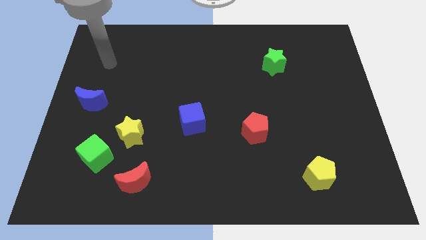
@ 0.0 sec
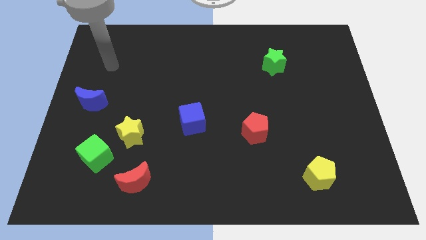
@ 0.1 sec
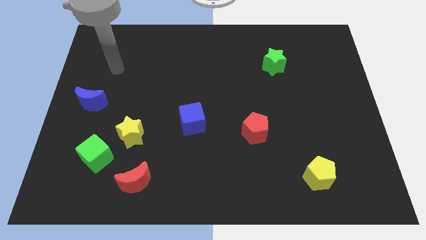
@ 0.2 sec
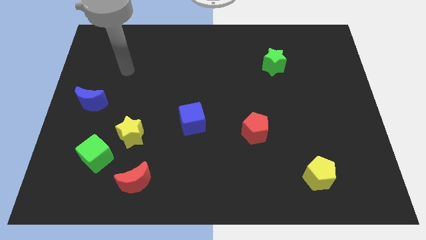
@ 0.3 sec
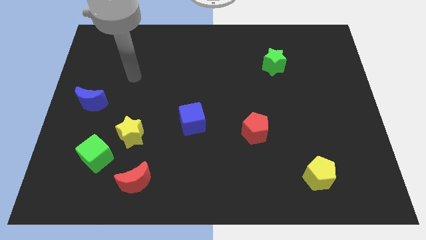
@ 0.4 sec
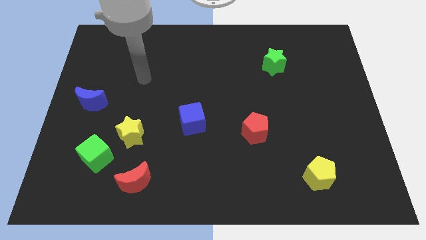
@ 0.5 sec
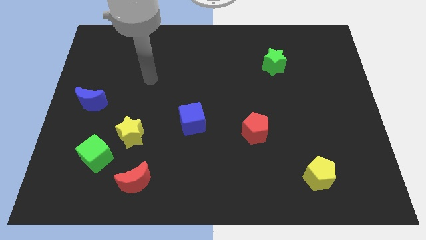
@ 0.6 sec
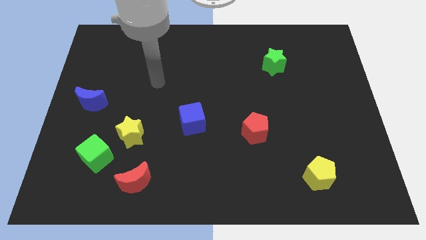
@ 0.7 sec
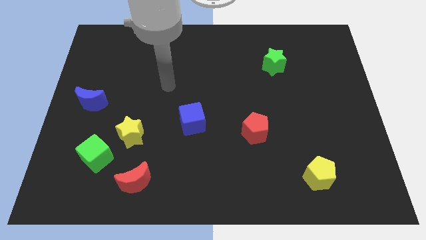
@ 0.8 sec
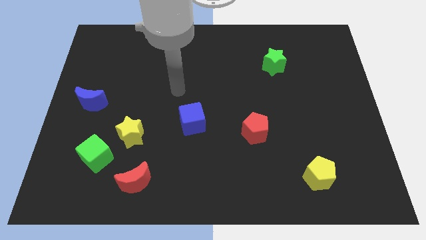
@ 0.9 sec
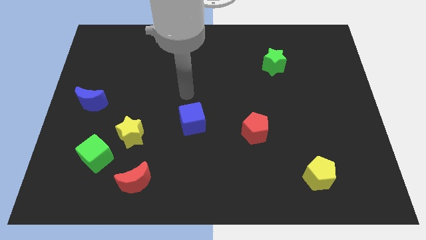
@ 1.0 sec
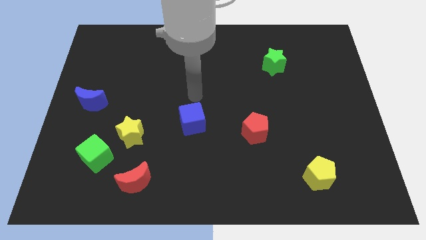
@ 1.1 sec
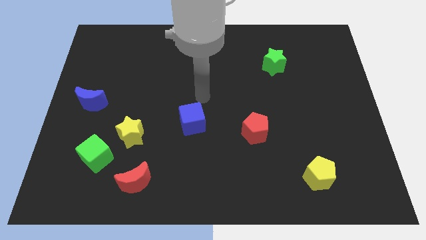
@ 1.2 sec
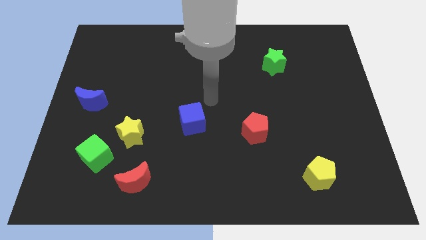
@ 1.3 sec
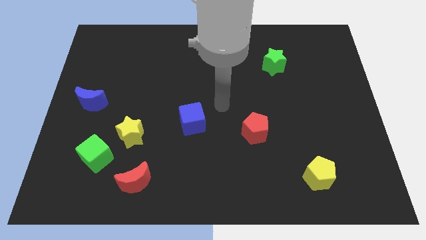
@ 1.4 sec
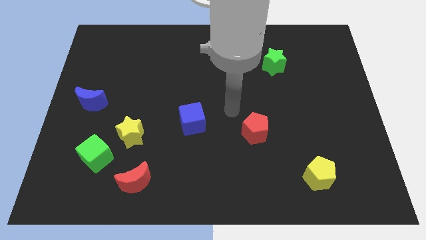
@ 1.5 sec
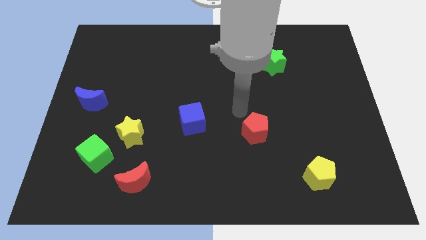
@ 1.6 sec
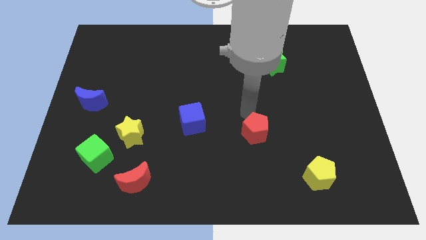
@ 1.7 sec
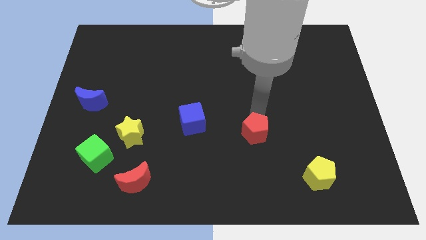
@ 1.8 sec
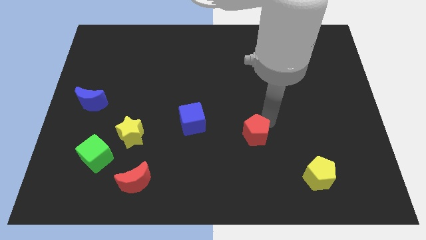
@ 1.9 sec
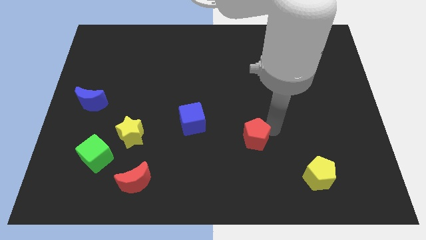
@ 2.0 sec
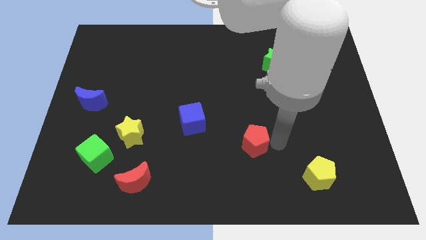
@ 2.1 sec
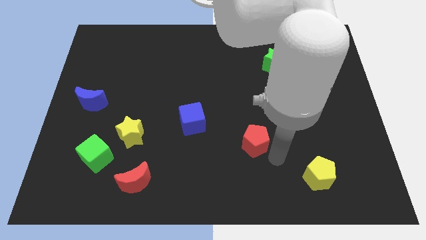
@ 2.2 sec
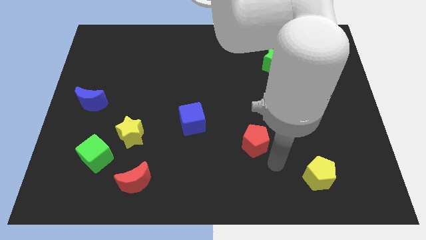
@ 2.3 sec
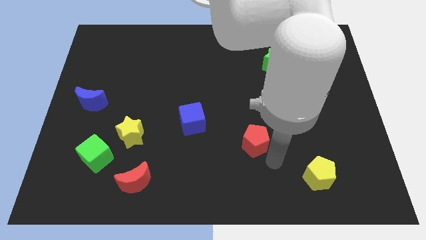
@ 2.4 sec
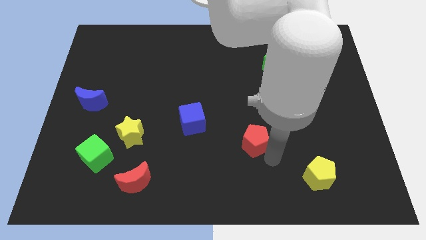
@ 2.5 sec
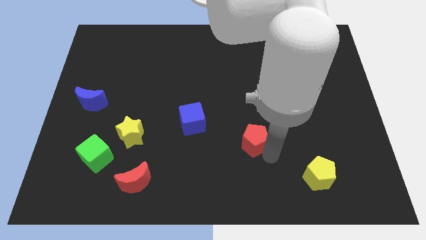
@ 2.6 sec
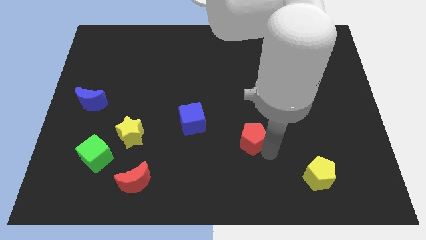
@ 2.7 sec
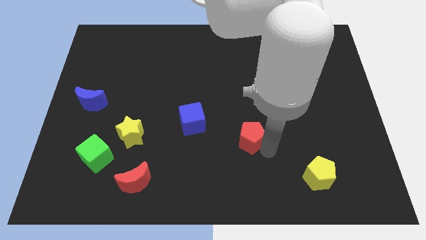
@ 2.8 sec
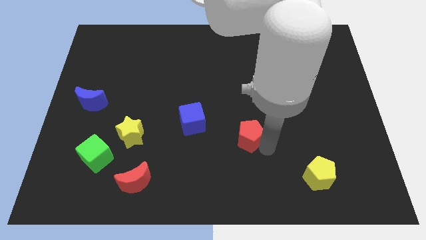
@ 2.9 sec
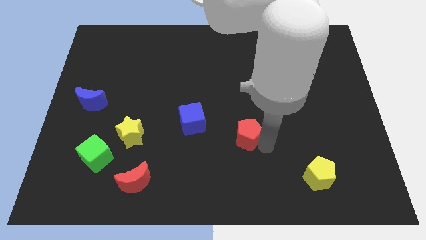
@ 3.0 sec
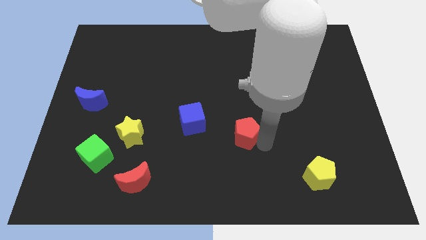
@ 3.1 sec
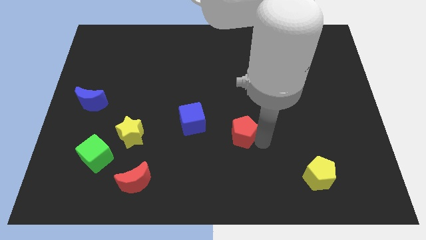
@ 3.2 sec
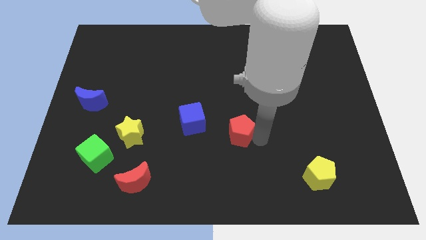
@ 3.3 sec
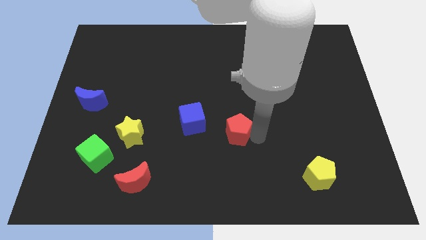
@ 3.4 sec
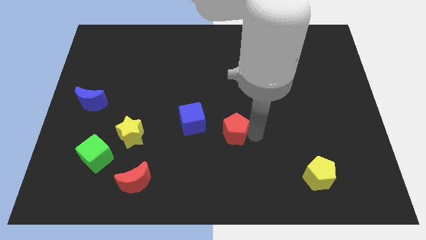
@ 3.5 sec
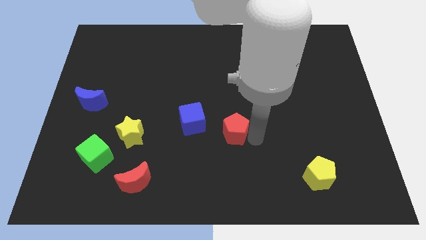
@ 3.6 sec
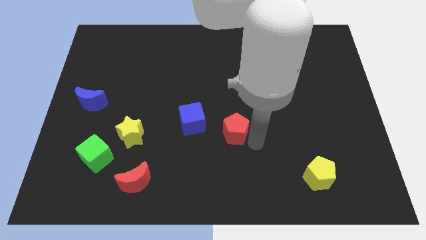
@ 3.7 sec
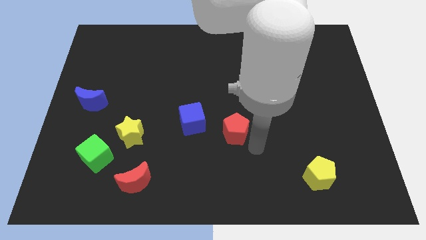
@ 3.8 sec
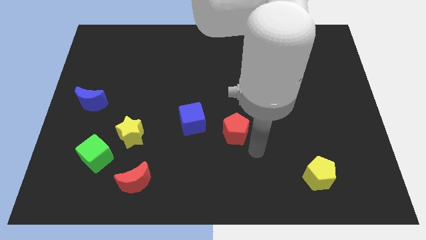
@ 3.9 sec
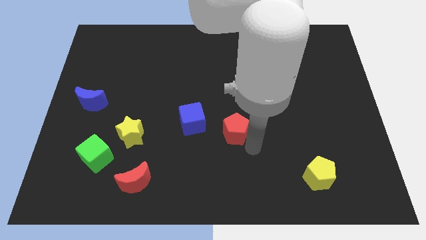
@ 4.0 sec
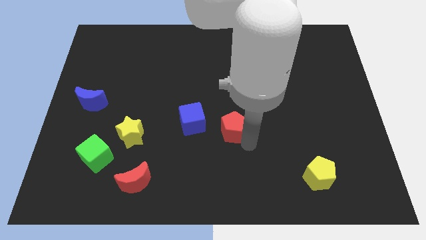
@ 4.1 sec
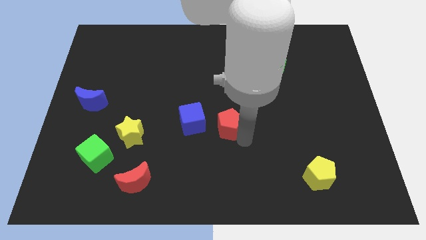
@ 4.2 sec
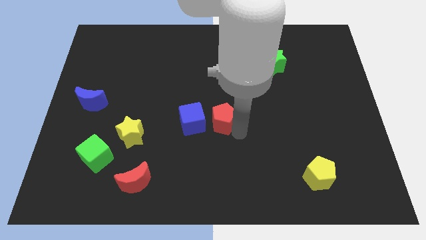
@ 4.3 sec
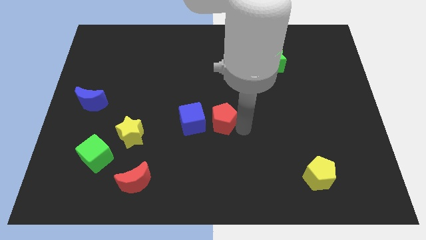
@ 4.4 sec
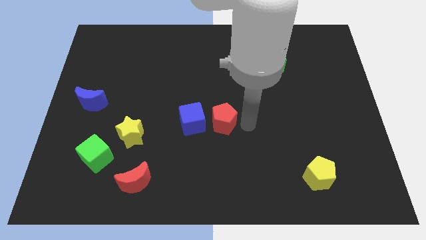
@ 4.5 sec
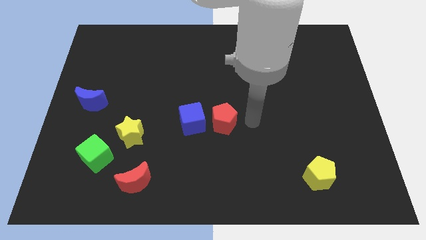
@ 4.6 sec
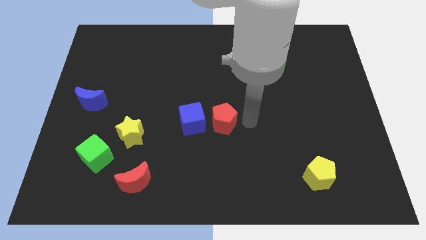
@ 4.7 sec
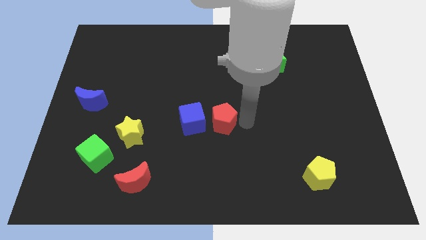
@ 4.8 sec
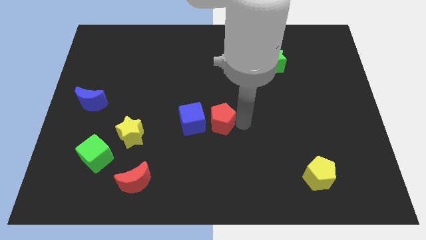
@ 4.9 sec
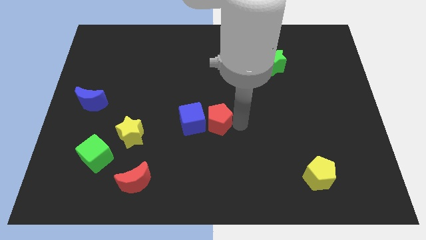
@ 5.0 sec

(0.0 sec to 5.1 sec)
move the red pentagon close to the blue cube

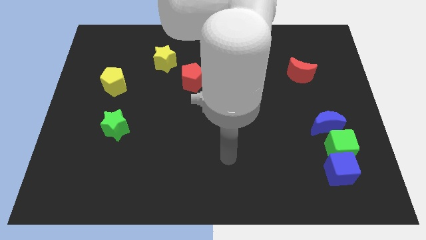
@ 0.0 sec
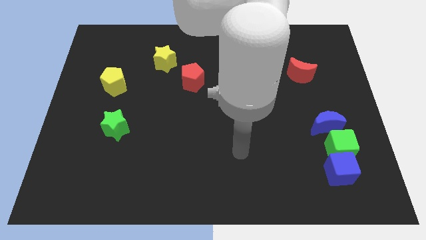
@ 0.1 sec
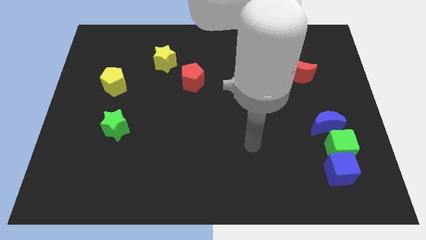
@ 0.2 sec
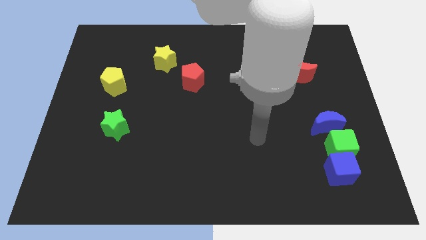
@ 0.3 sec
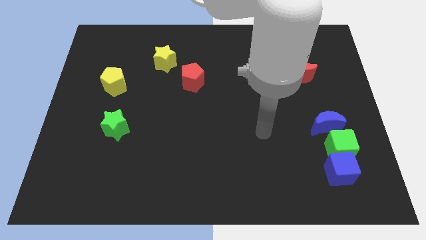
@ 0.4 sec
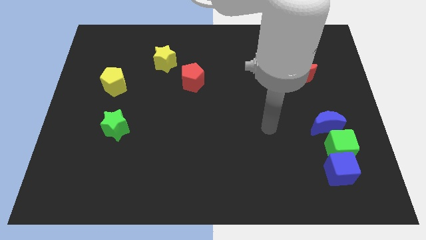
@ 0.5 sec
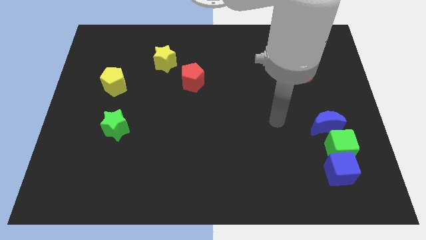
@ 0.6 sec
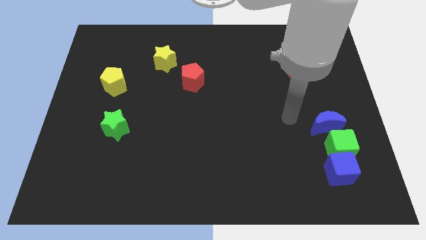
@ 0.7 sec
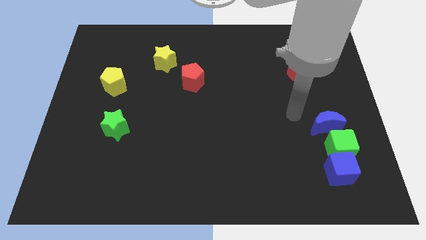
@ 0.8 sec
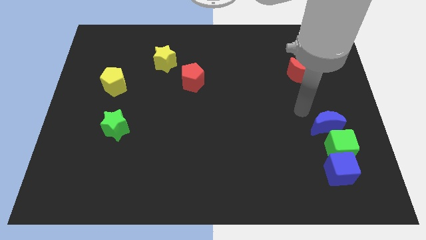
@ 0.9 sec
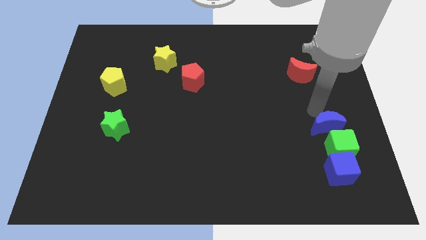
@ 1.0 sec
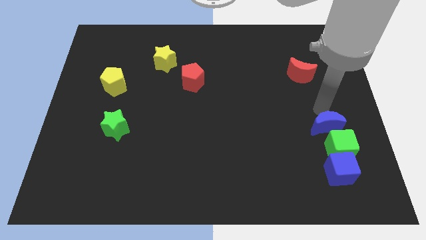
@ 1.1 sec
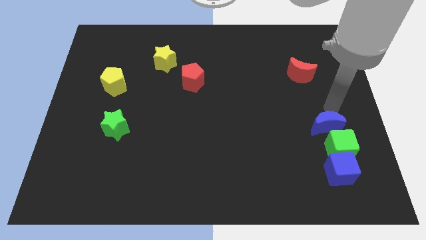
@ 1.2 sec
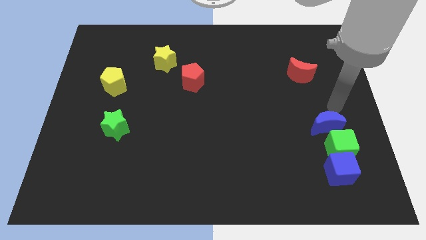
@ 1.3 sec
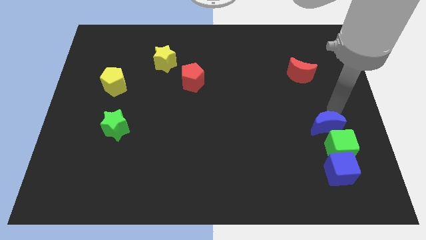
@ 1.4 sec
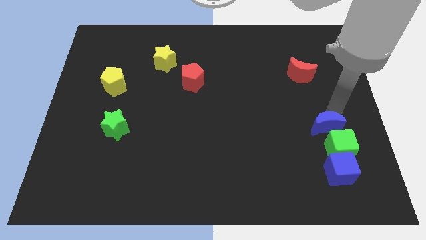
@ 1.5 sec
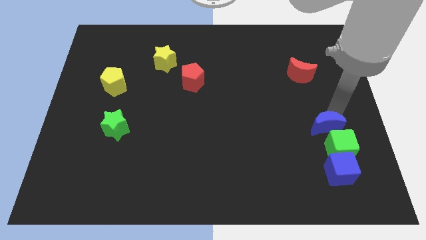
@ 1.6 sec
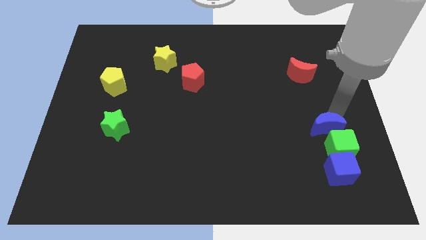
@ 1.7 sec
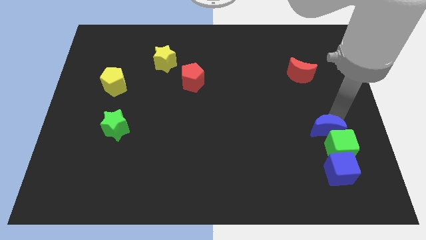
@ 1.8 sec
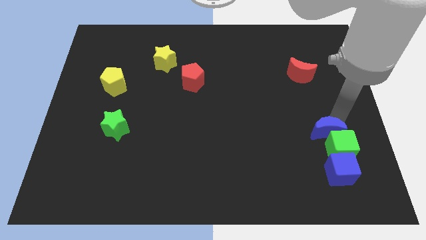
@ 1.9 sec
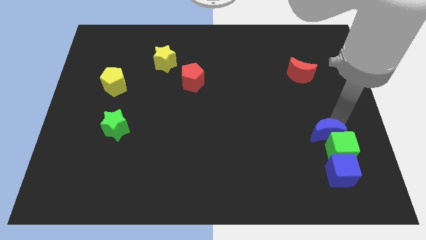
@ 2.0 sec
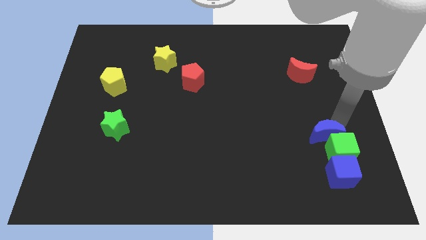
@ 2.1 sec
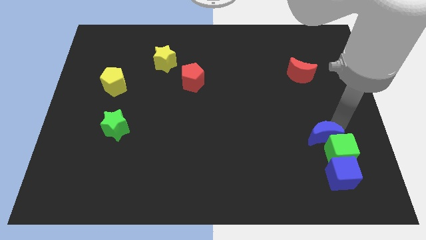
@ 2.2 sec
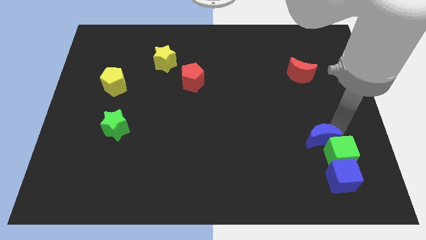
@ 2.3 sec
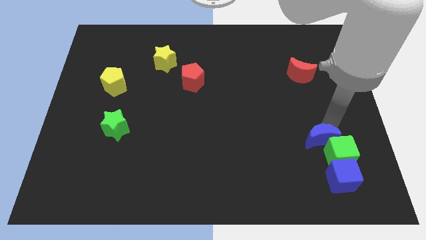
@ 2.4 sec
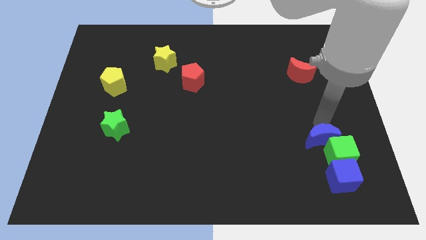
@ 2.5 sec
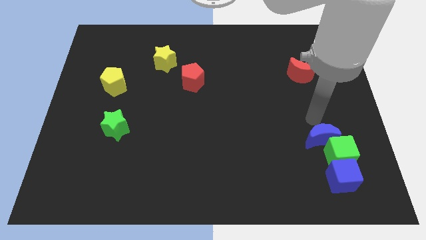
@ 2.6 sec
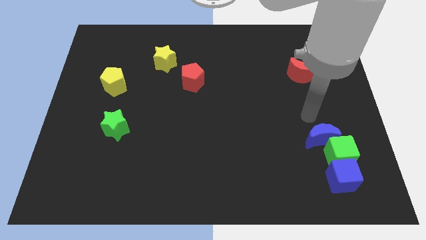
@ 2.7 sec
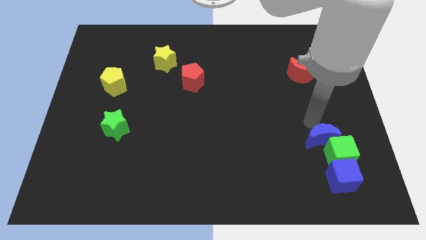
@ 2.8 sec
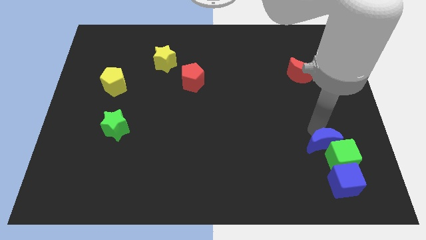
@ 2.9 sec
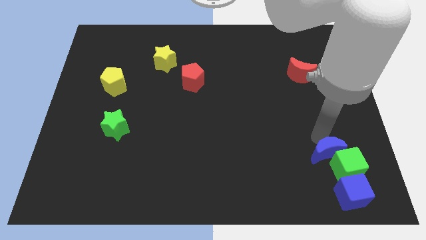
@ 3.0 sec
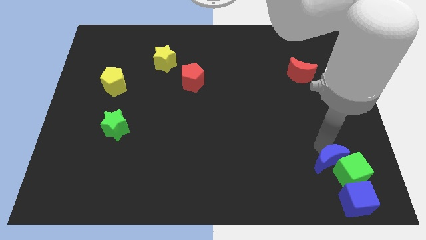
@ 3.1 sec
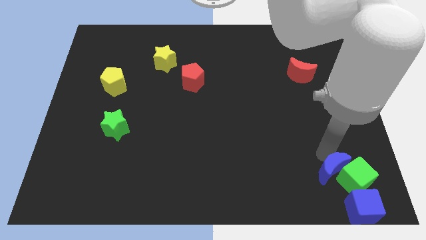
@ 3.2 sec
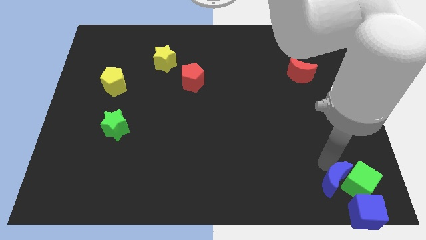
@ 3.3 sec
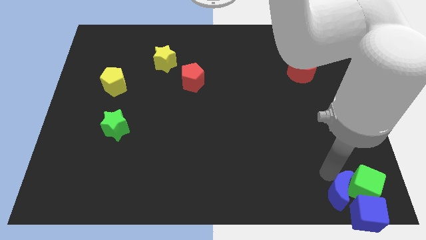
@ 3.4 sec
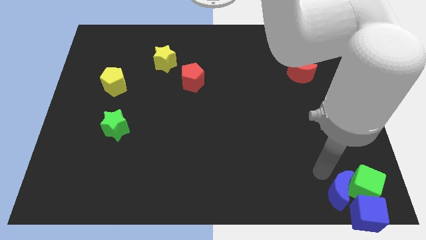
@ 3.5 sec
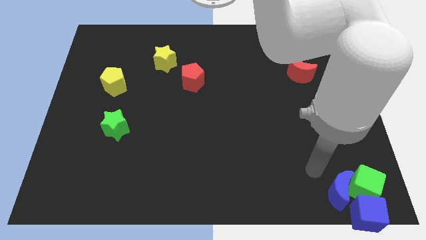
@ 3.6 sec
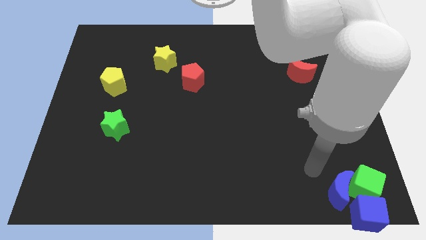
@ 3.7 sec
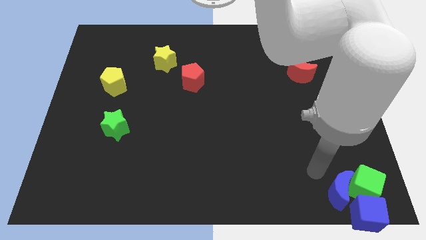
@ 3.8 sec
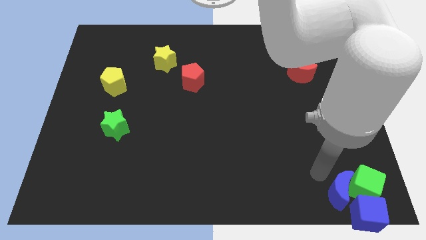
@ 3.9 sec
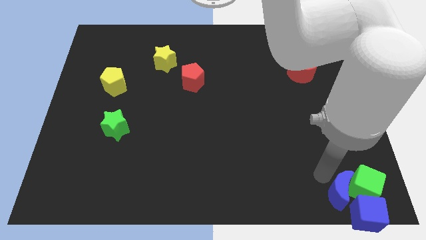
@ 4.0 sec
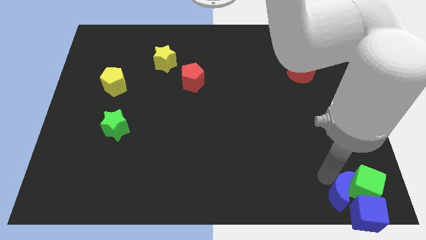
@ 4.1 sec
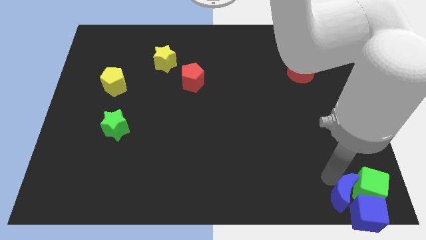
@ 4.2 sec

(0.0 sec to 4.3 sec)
put the blue moon to the blue cube
